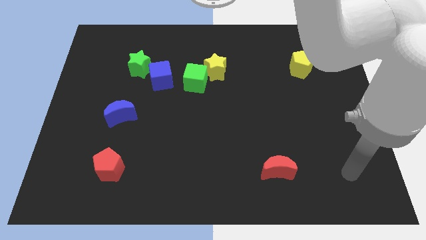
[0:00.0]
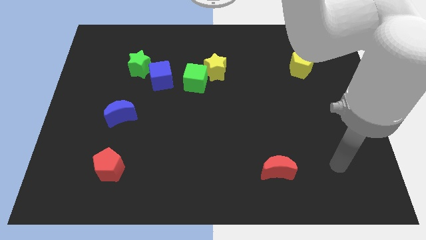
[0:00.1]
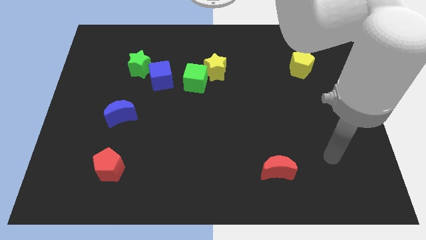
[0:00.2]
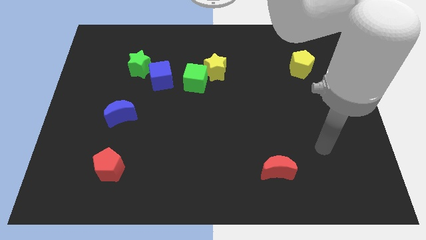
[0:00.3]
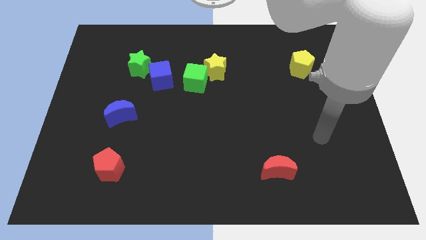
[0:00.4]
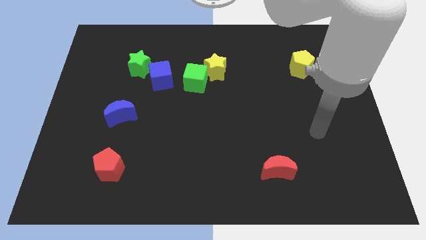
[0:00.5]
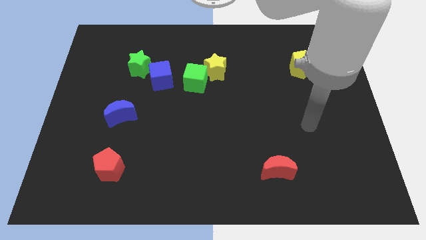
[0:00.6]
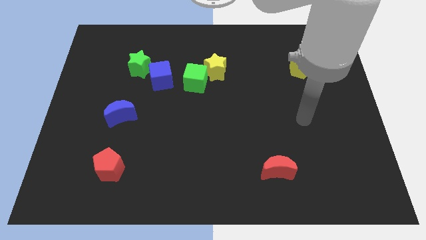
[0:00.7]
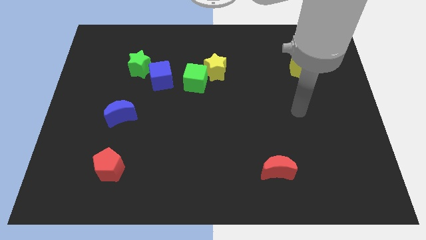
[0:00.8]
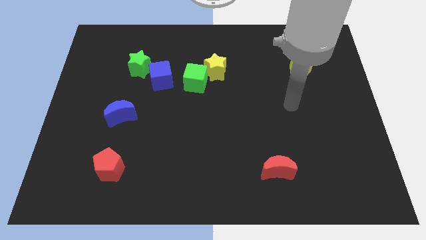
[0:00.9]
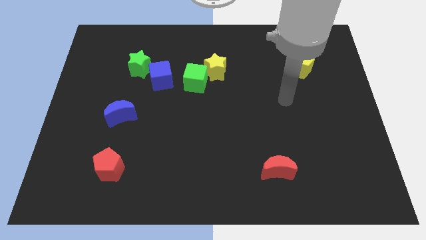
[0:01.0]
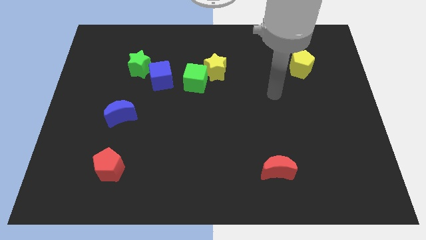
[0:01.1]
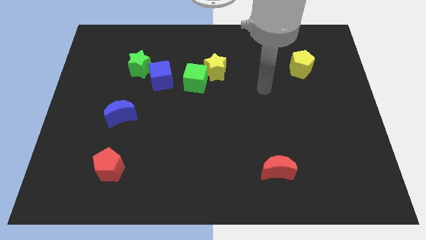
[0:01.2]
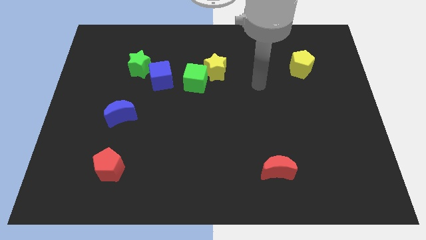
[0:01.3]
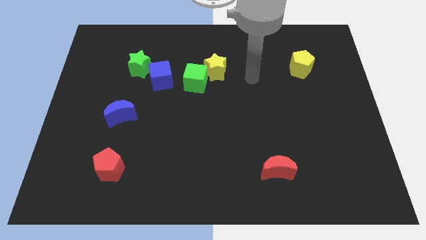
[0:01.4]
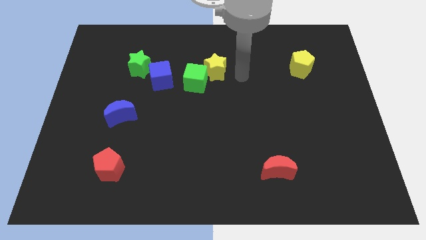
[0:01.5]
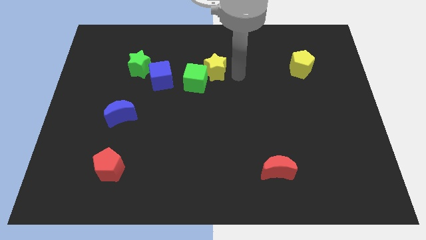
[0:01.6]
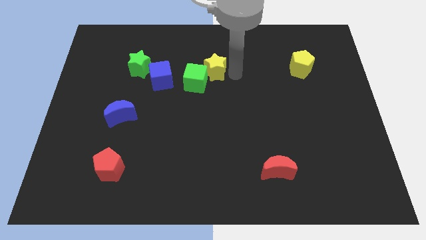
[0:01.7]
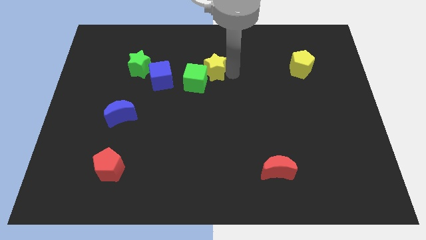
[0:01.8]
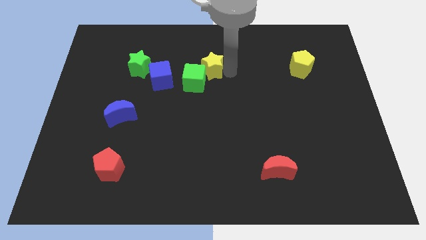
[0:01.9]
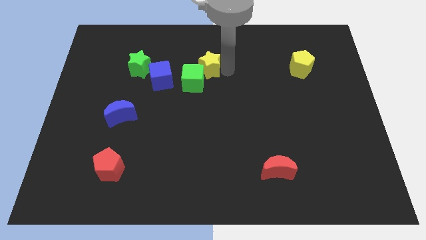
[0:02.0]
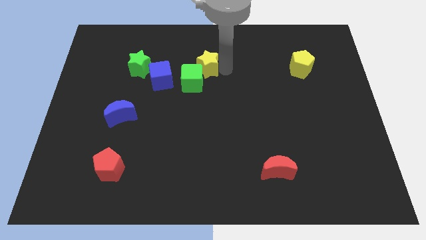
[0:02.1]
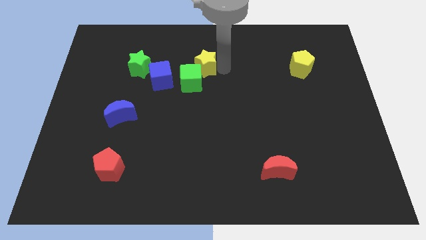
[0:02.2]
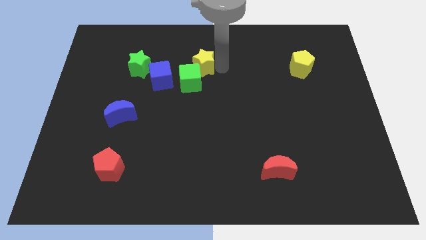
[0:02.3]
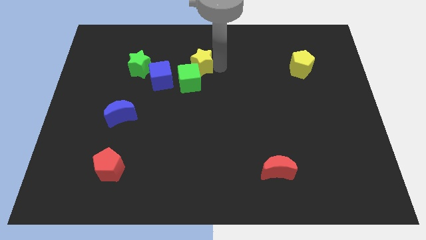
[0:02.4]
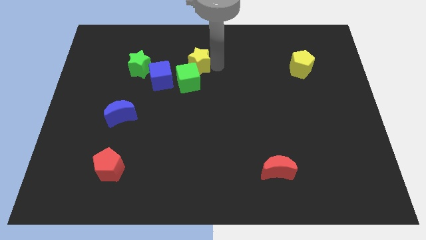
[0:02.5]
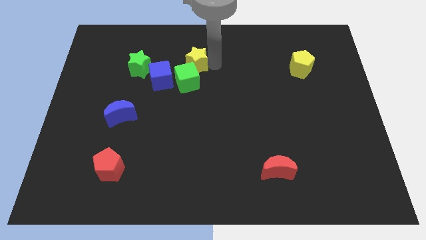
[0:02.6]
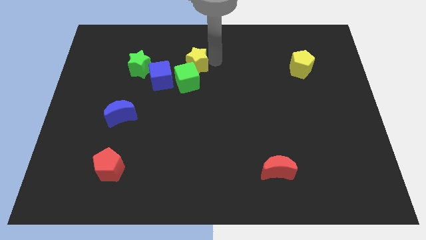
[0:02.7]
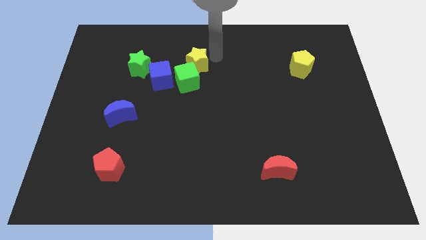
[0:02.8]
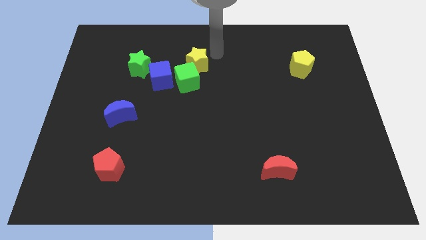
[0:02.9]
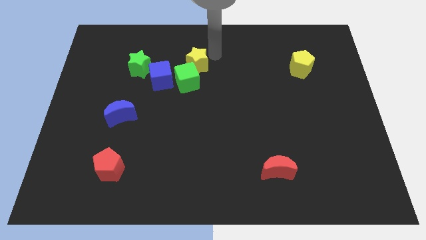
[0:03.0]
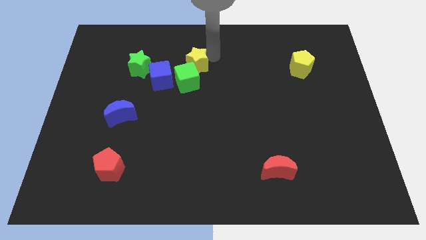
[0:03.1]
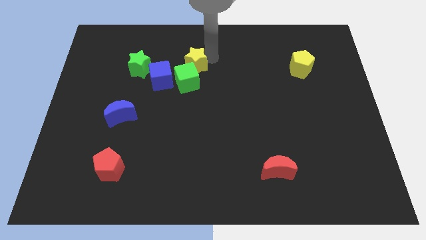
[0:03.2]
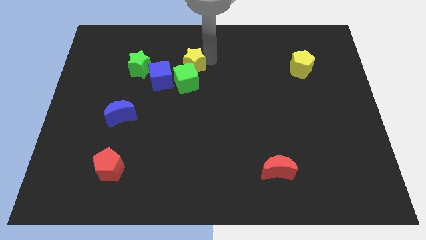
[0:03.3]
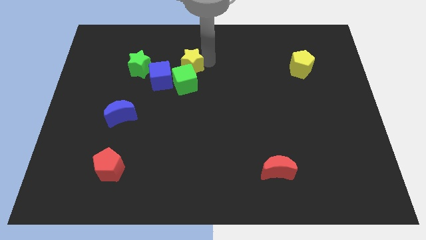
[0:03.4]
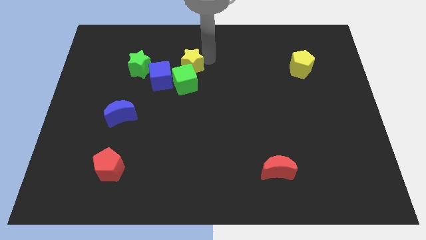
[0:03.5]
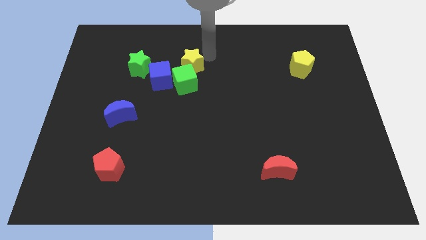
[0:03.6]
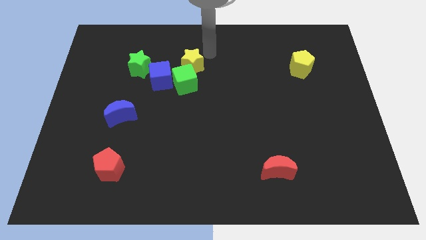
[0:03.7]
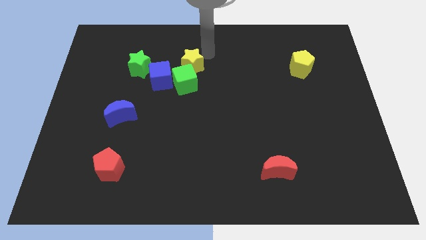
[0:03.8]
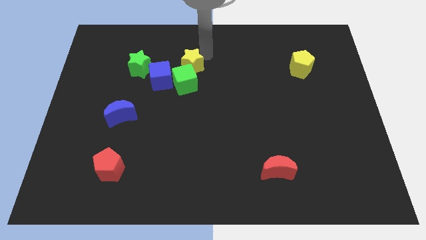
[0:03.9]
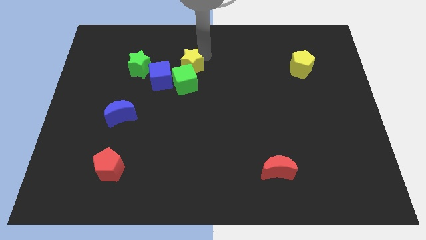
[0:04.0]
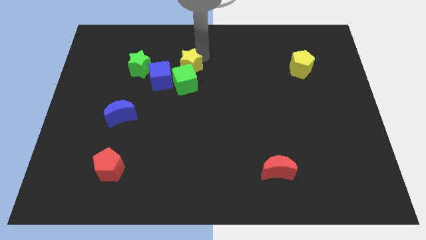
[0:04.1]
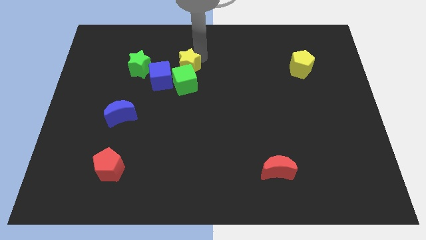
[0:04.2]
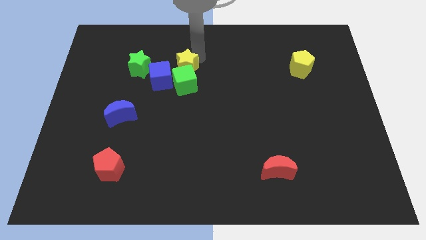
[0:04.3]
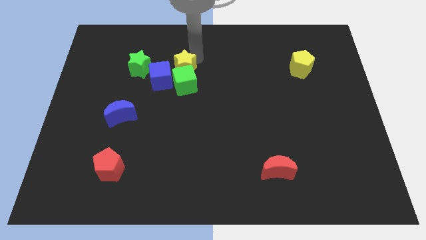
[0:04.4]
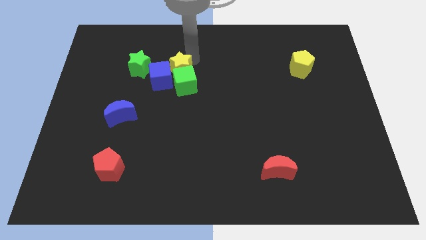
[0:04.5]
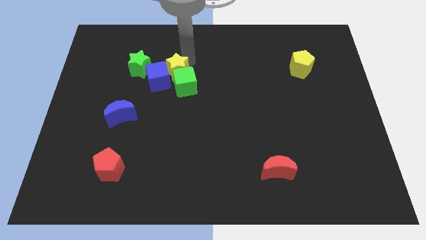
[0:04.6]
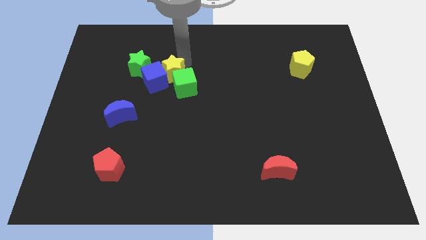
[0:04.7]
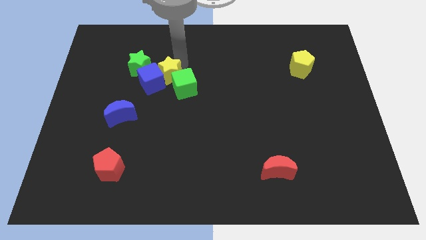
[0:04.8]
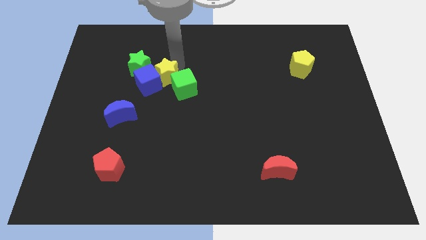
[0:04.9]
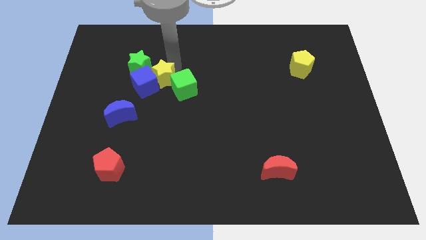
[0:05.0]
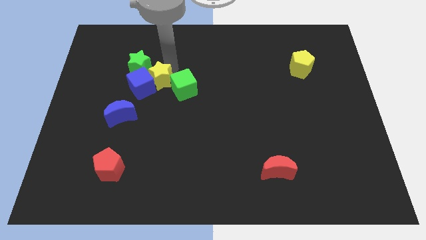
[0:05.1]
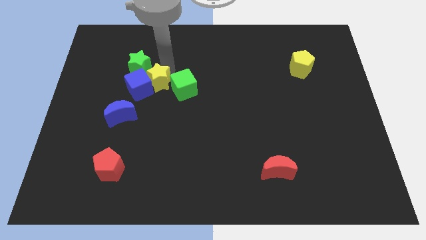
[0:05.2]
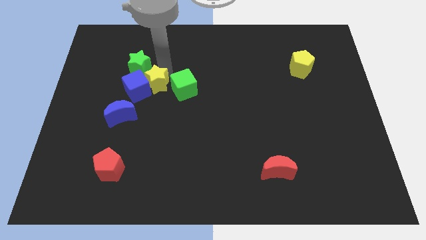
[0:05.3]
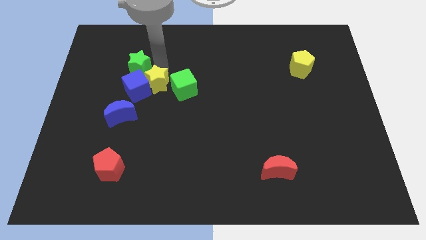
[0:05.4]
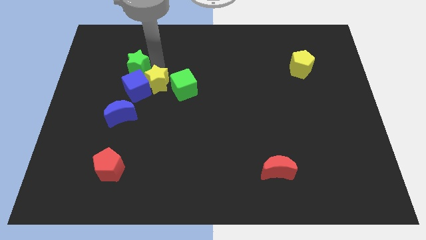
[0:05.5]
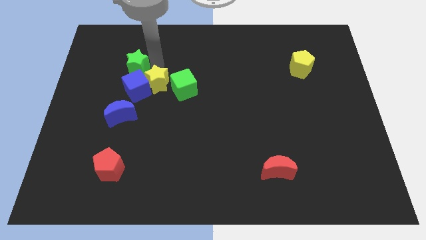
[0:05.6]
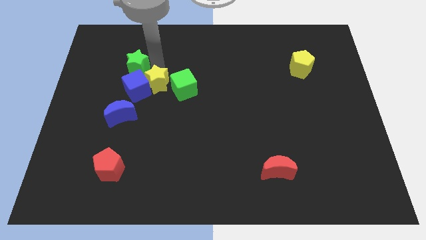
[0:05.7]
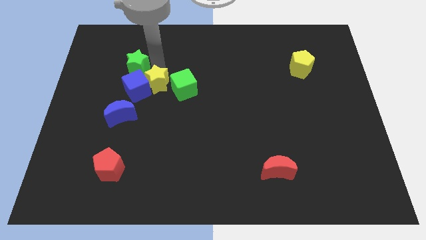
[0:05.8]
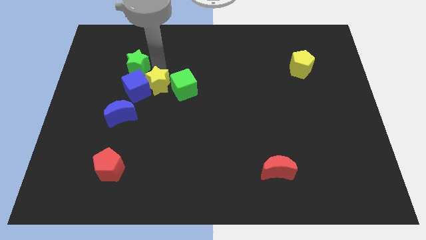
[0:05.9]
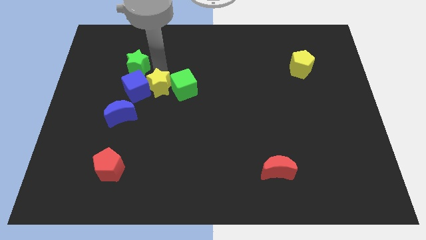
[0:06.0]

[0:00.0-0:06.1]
move the yellow star to the bottom left of the green cube

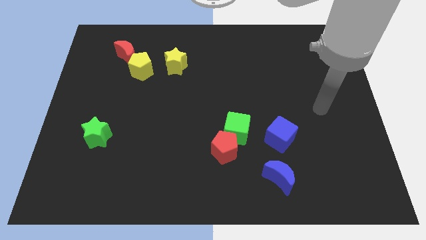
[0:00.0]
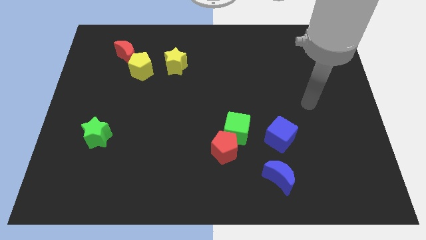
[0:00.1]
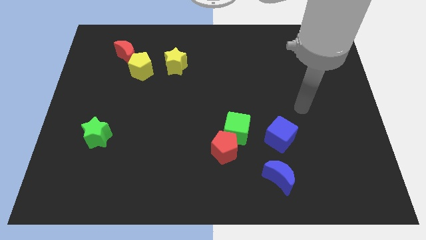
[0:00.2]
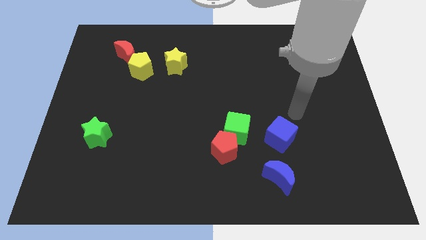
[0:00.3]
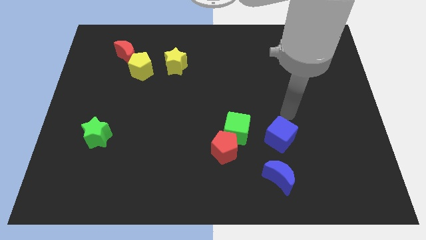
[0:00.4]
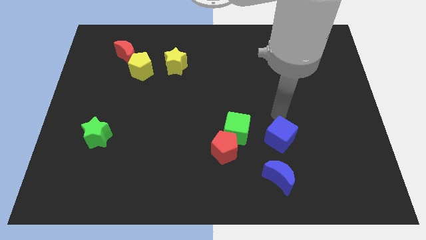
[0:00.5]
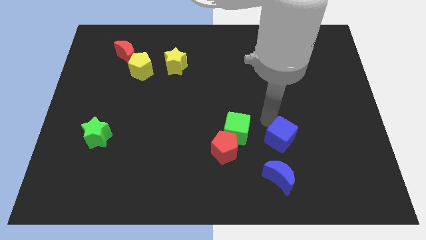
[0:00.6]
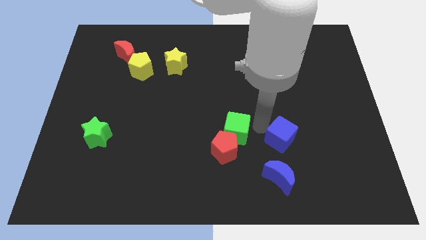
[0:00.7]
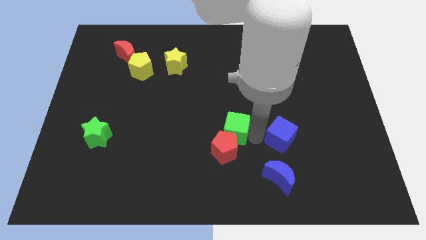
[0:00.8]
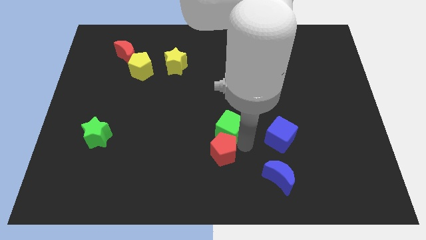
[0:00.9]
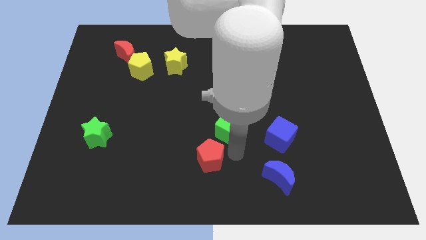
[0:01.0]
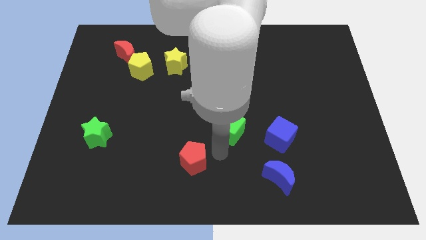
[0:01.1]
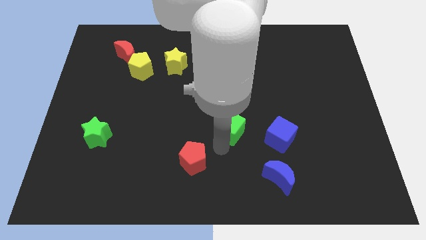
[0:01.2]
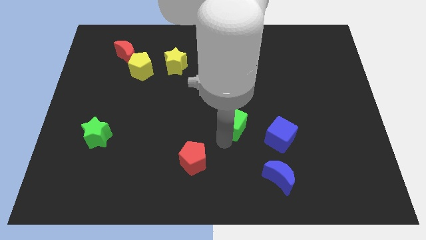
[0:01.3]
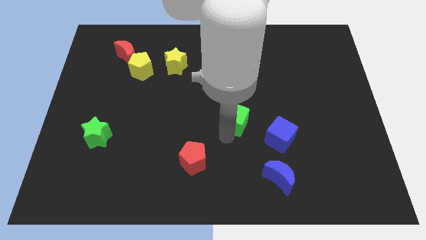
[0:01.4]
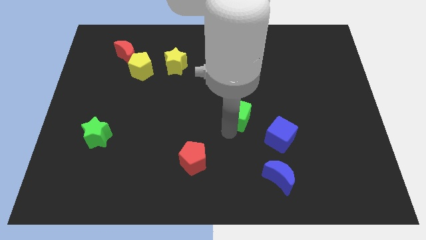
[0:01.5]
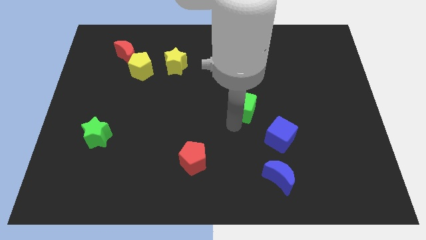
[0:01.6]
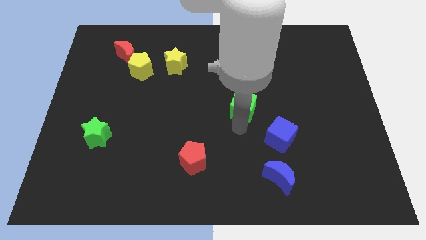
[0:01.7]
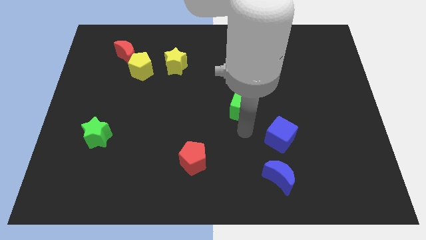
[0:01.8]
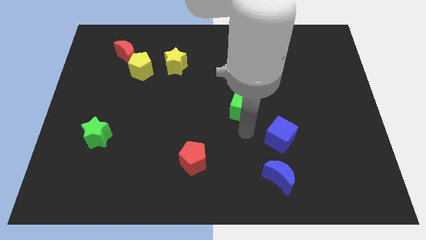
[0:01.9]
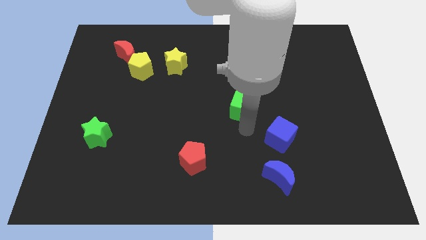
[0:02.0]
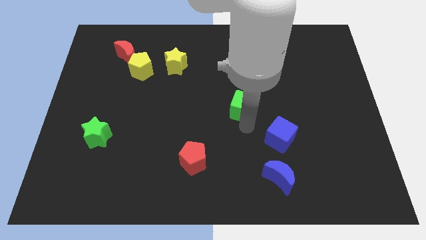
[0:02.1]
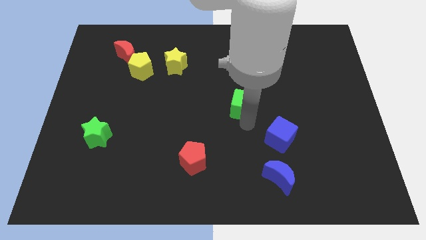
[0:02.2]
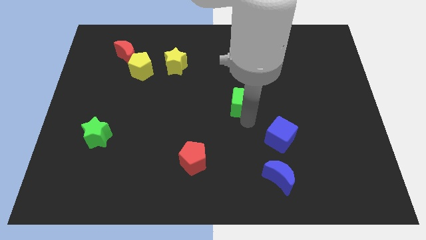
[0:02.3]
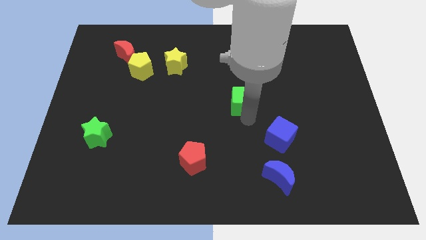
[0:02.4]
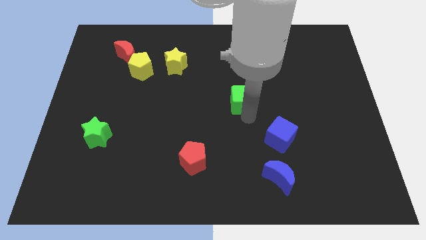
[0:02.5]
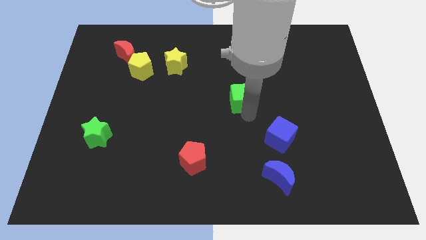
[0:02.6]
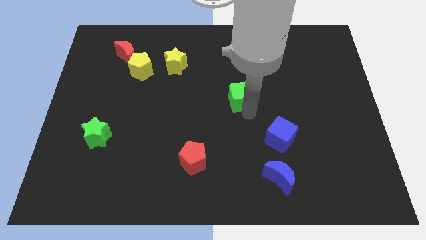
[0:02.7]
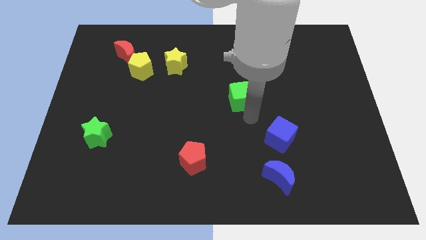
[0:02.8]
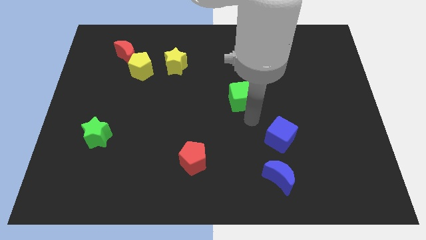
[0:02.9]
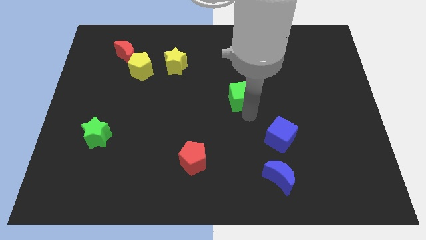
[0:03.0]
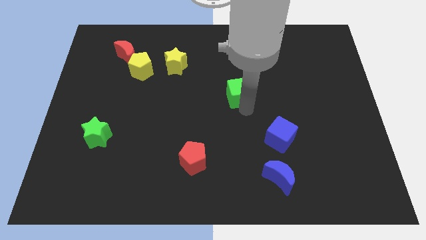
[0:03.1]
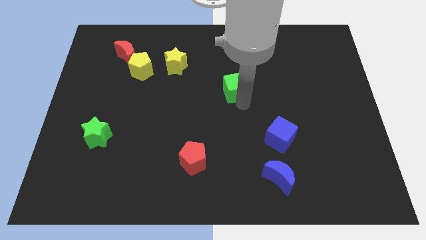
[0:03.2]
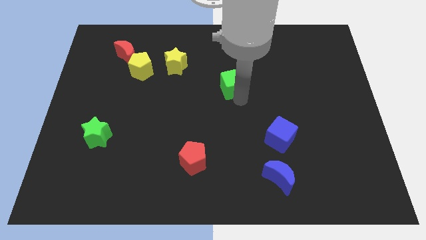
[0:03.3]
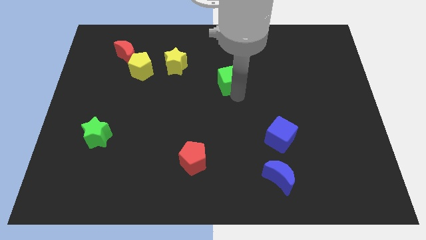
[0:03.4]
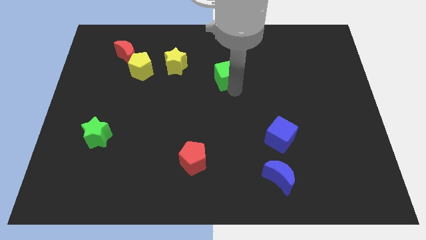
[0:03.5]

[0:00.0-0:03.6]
slide the green cube right of the yellow star
